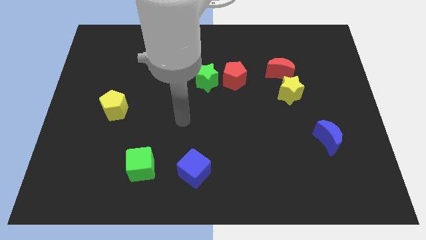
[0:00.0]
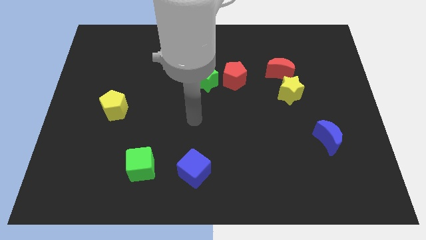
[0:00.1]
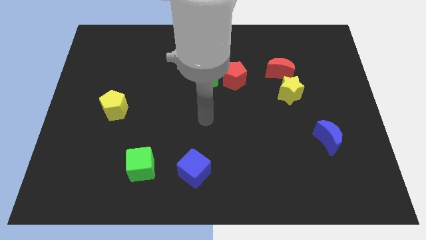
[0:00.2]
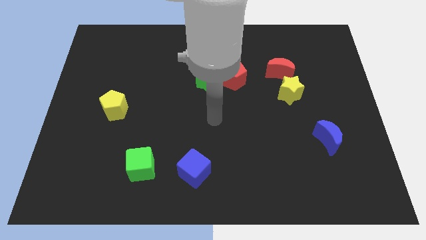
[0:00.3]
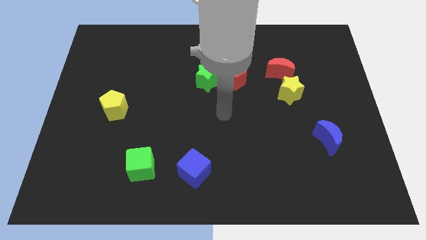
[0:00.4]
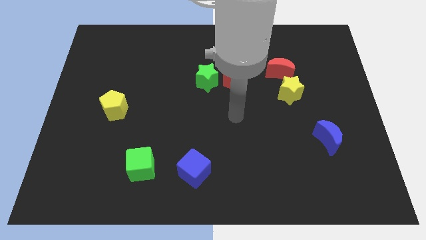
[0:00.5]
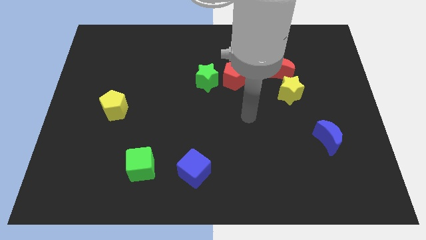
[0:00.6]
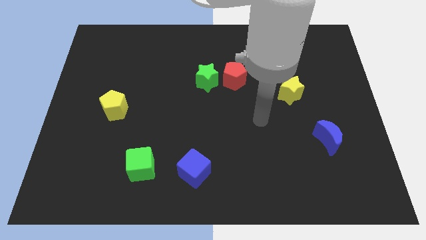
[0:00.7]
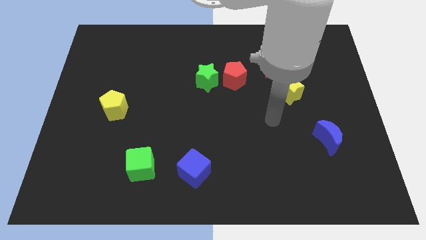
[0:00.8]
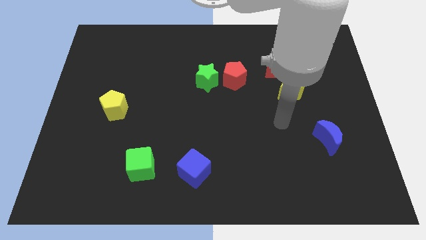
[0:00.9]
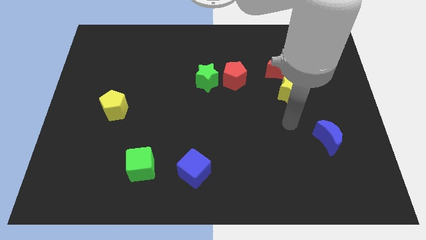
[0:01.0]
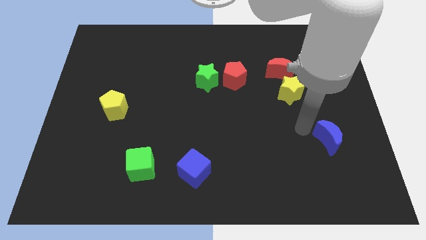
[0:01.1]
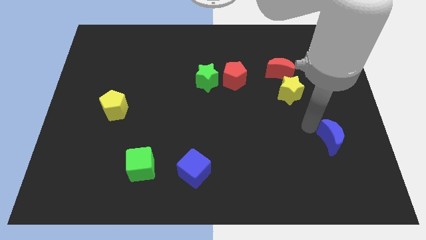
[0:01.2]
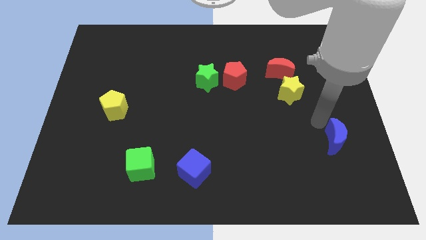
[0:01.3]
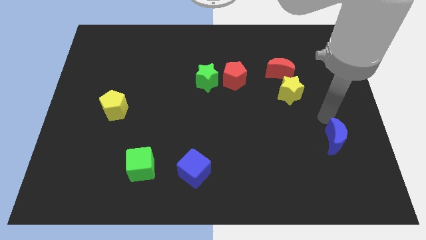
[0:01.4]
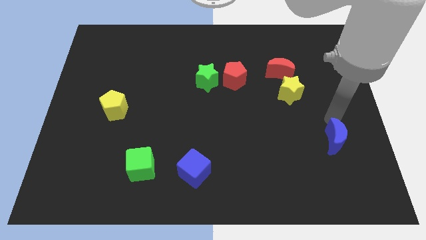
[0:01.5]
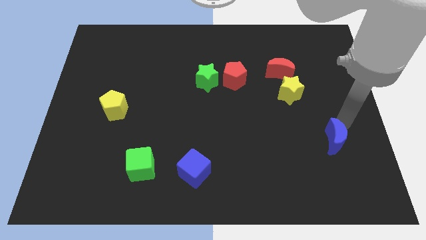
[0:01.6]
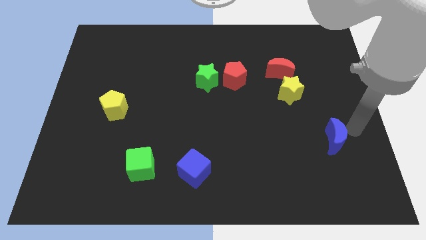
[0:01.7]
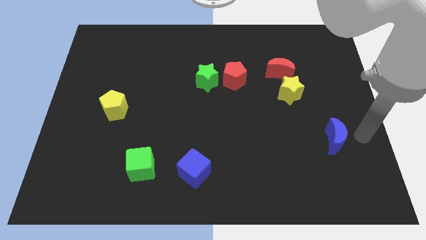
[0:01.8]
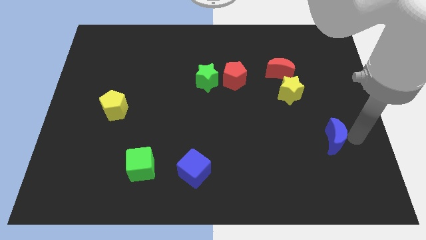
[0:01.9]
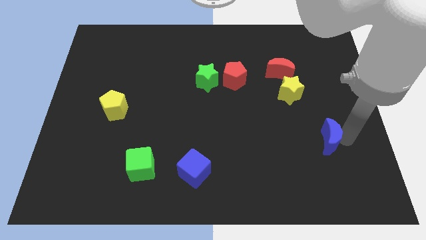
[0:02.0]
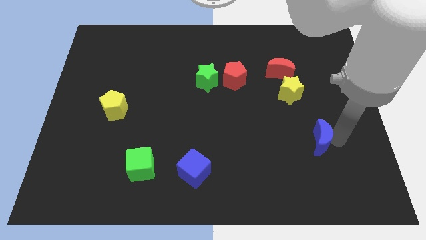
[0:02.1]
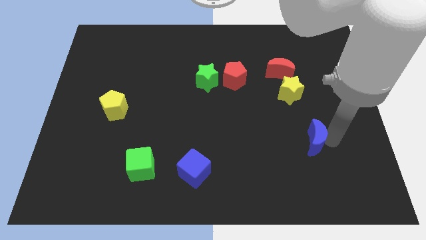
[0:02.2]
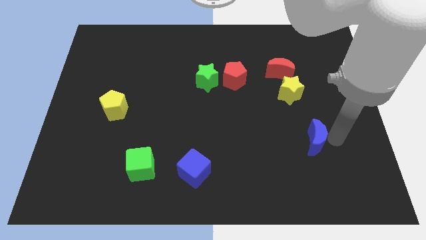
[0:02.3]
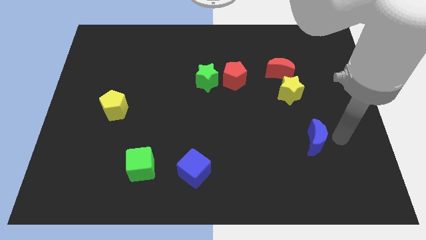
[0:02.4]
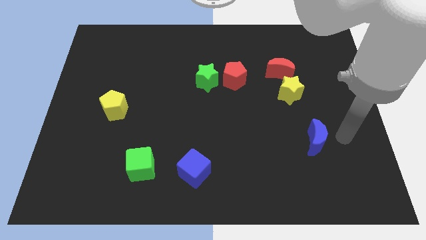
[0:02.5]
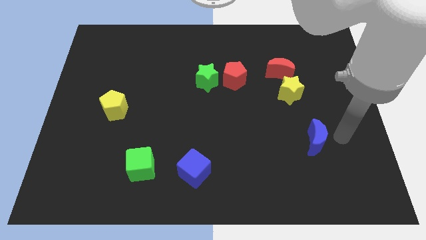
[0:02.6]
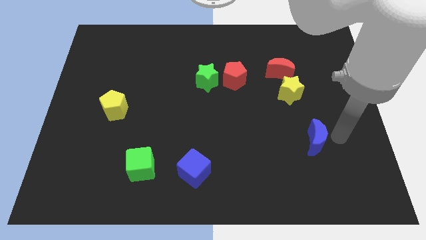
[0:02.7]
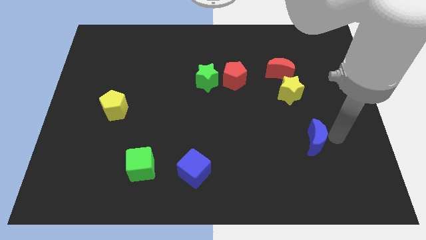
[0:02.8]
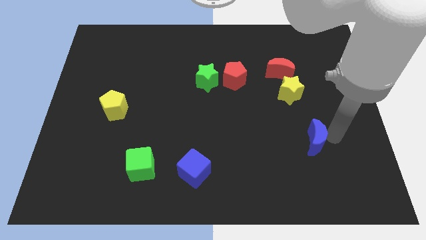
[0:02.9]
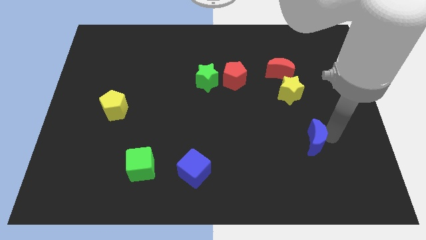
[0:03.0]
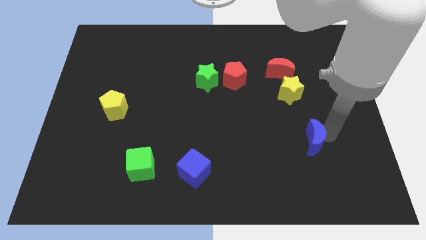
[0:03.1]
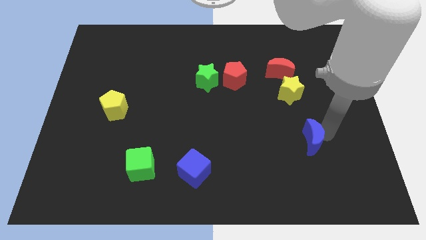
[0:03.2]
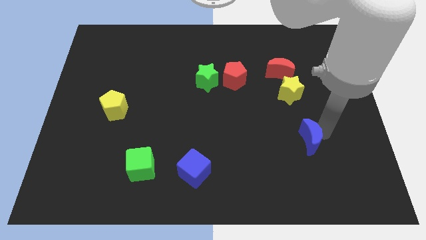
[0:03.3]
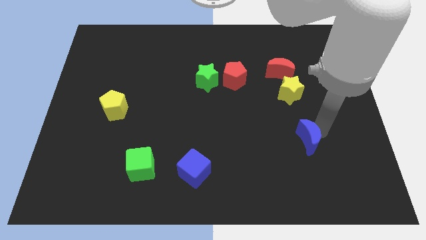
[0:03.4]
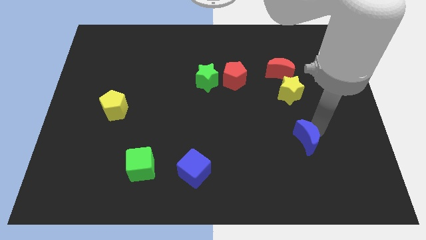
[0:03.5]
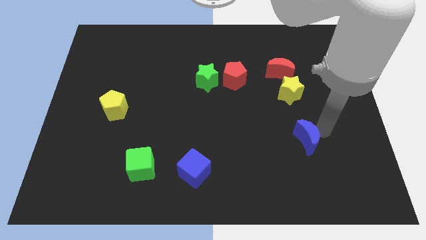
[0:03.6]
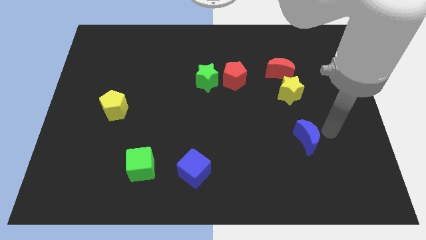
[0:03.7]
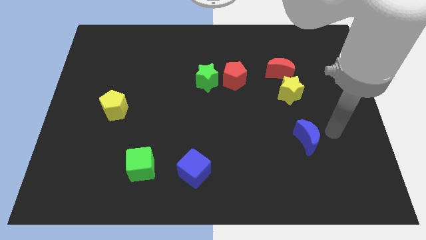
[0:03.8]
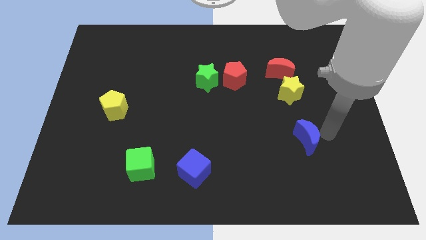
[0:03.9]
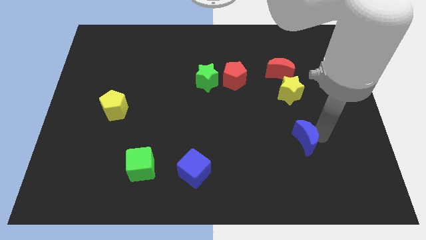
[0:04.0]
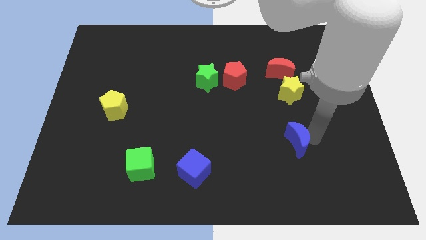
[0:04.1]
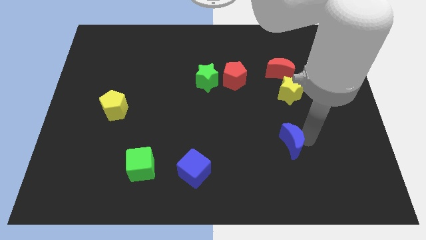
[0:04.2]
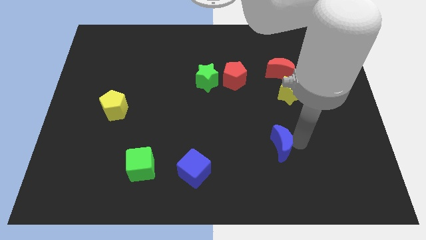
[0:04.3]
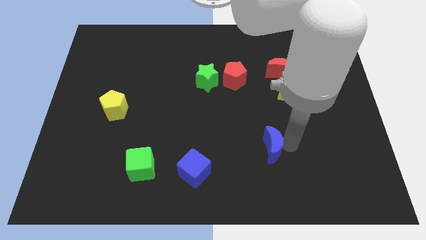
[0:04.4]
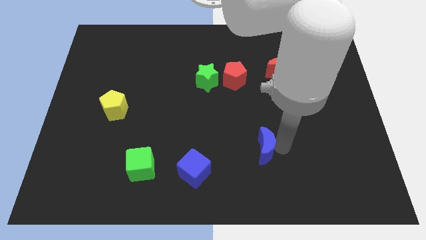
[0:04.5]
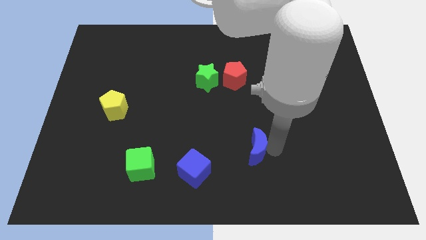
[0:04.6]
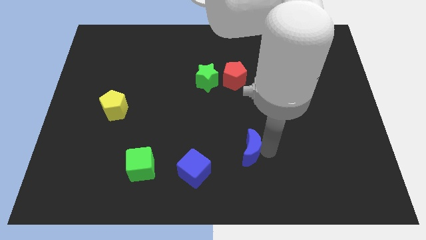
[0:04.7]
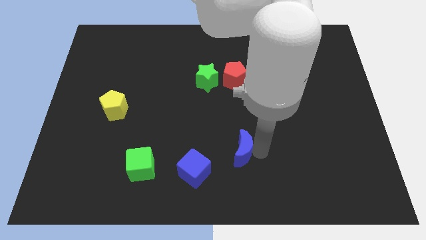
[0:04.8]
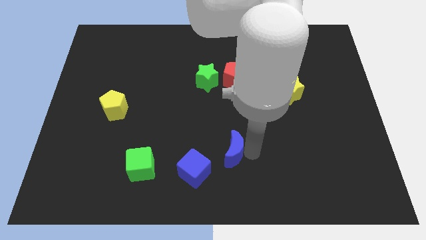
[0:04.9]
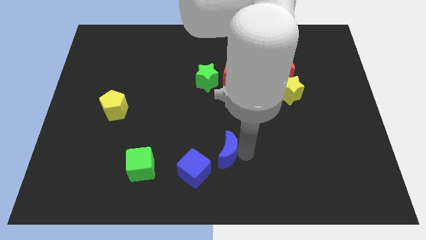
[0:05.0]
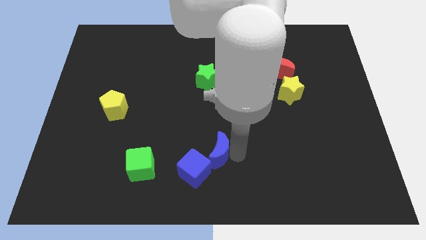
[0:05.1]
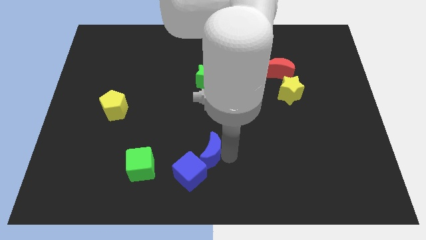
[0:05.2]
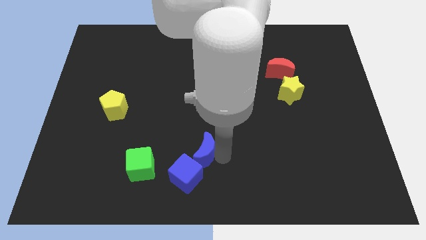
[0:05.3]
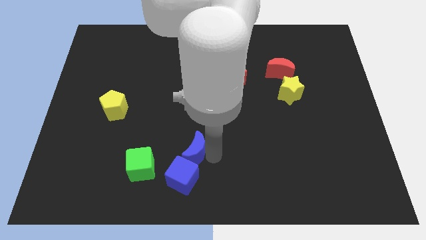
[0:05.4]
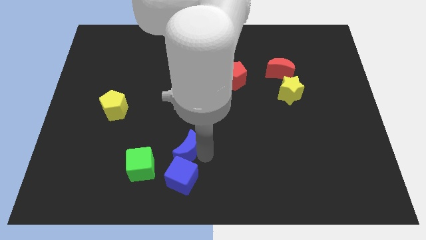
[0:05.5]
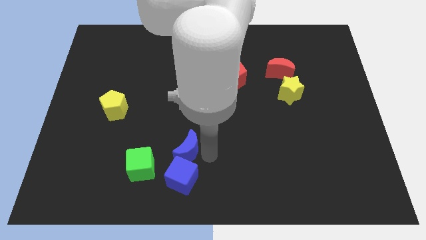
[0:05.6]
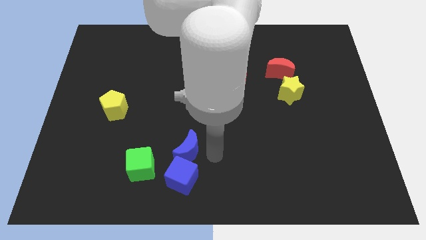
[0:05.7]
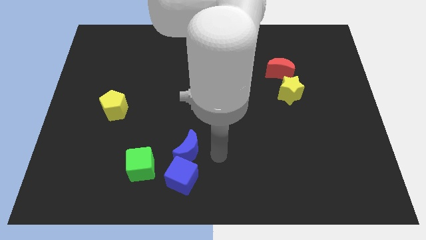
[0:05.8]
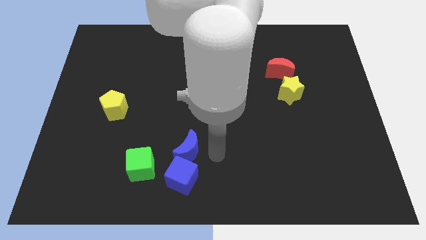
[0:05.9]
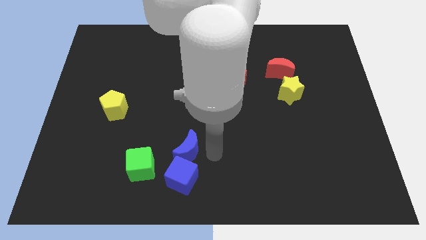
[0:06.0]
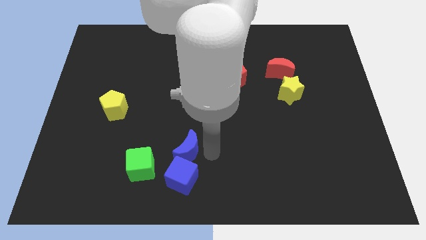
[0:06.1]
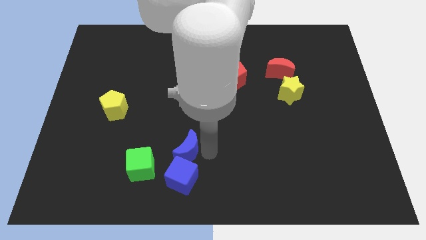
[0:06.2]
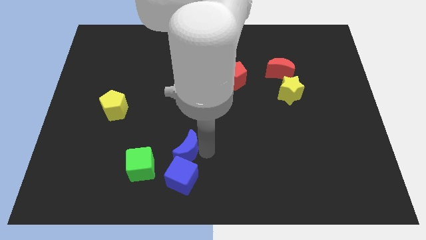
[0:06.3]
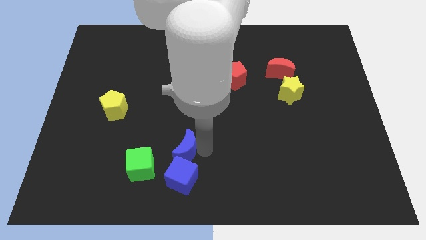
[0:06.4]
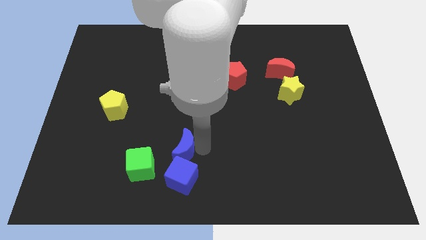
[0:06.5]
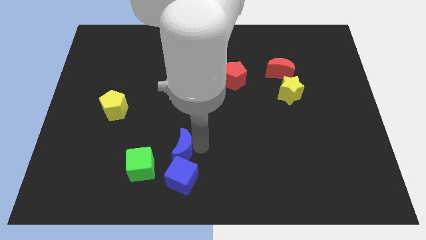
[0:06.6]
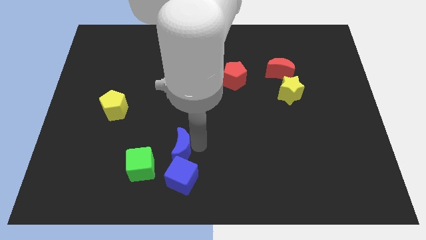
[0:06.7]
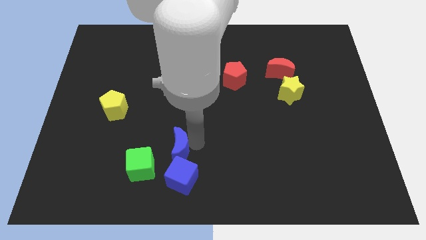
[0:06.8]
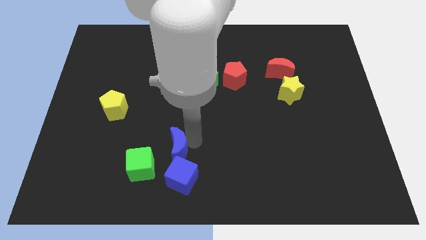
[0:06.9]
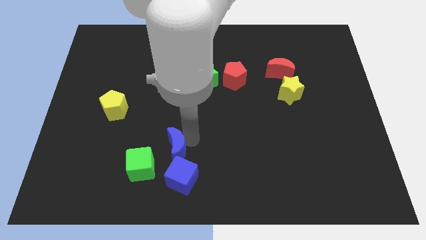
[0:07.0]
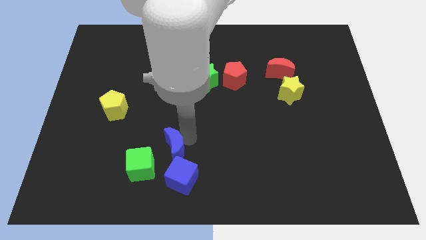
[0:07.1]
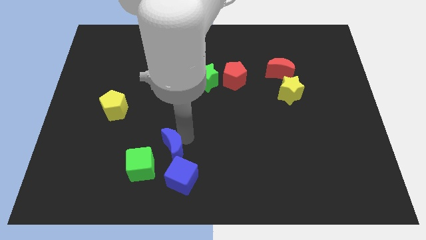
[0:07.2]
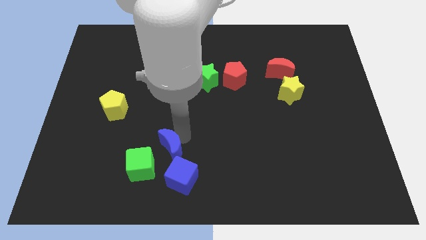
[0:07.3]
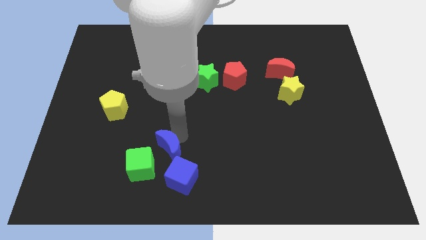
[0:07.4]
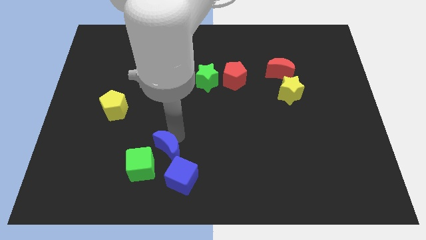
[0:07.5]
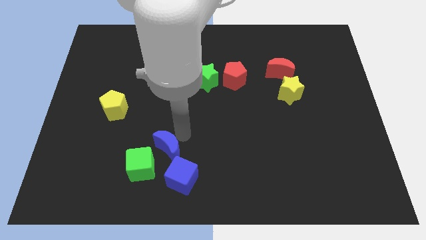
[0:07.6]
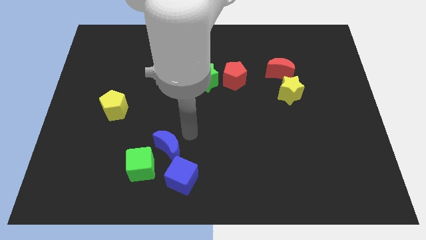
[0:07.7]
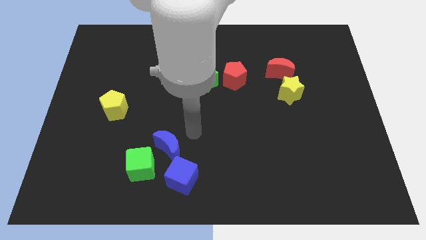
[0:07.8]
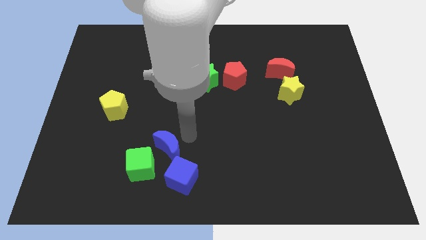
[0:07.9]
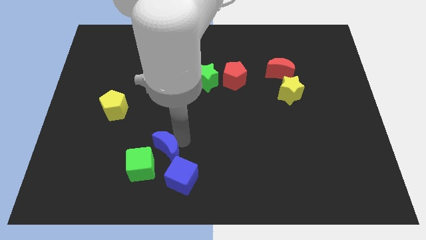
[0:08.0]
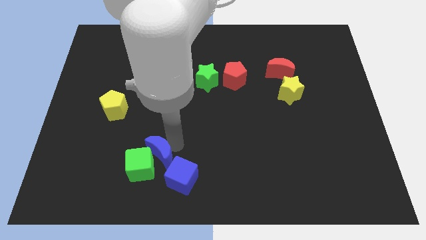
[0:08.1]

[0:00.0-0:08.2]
push the blue moon towards the green cube
